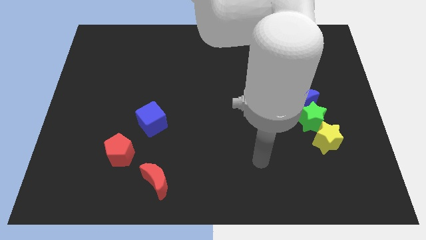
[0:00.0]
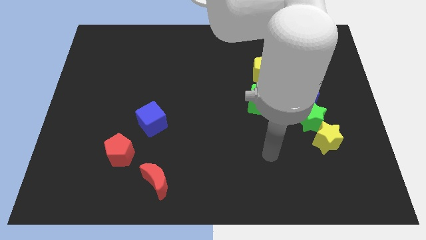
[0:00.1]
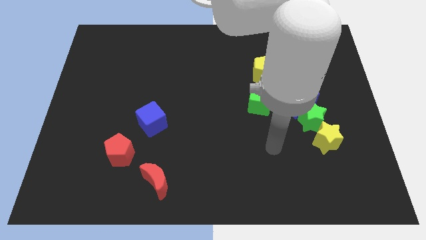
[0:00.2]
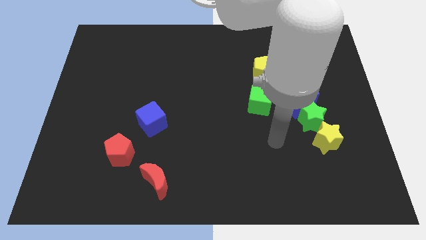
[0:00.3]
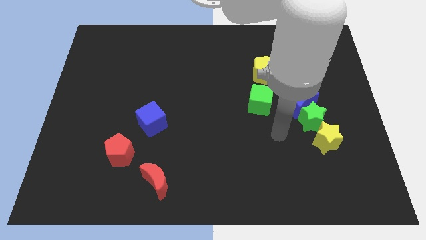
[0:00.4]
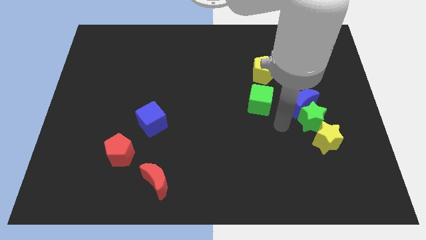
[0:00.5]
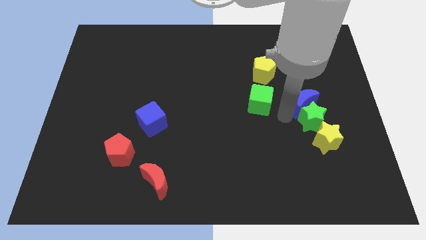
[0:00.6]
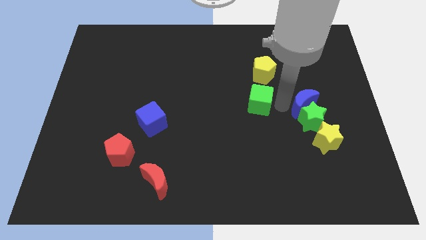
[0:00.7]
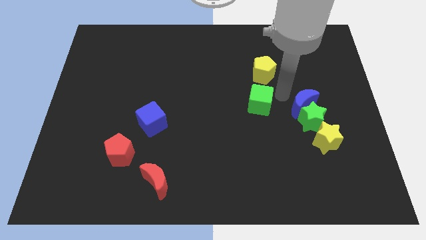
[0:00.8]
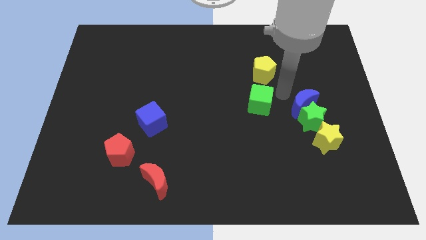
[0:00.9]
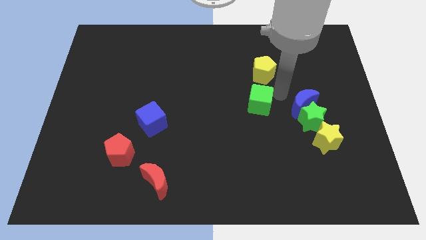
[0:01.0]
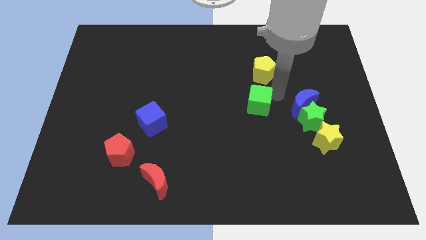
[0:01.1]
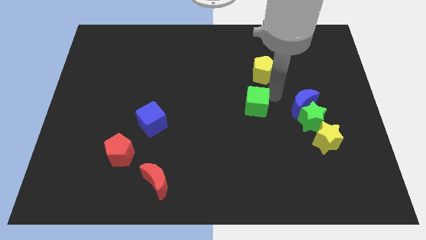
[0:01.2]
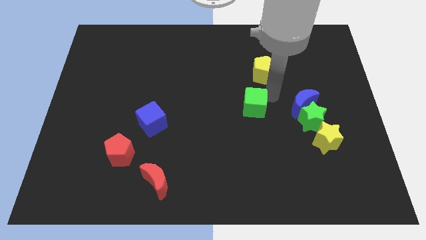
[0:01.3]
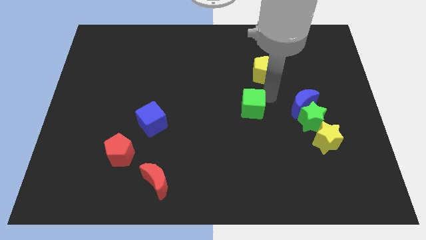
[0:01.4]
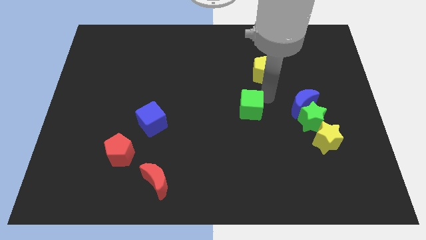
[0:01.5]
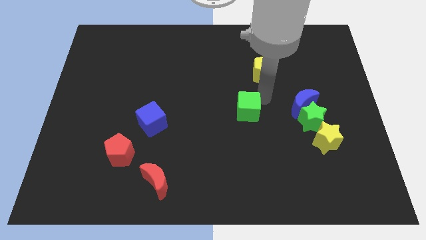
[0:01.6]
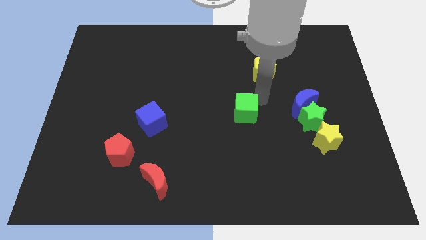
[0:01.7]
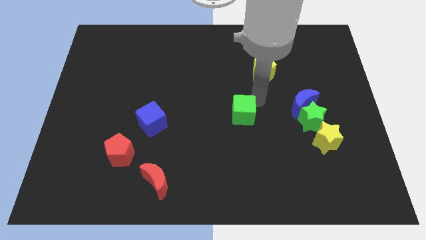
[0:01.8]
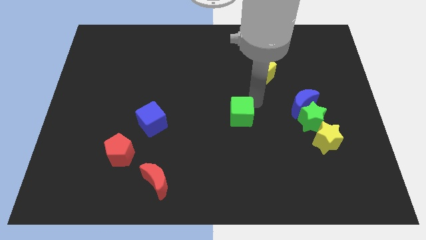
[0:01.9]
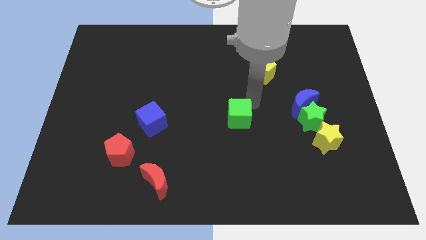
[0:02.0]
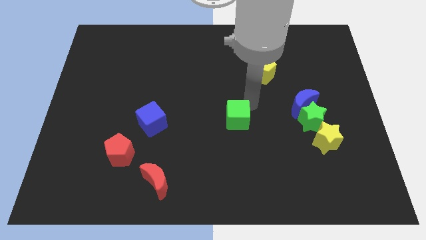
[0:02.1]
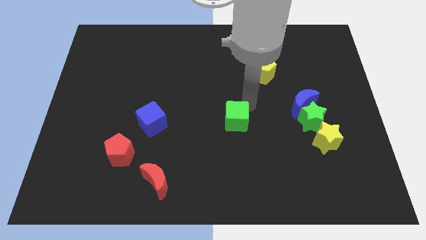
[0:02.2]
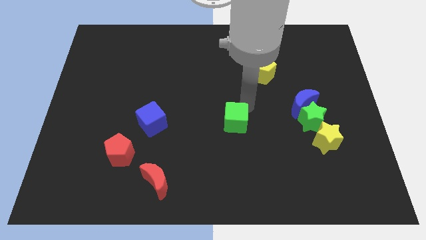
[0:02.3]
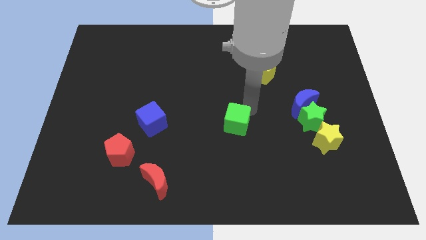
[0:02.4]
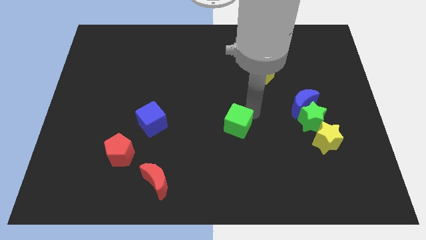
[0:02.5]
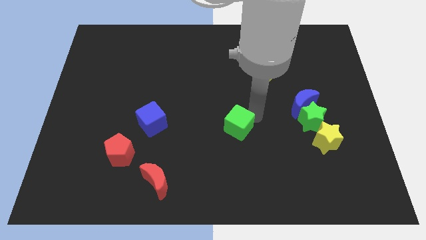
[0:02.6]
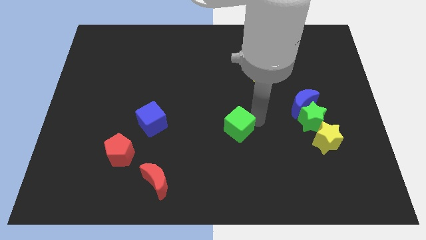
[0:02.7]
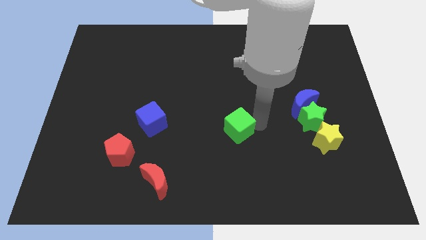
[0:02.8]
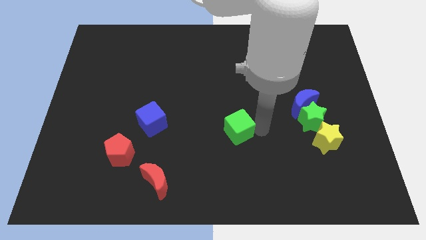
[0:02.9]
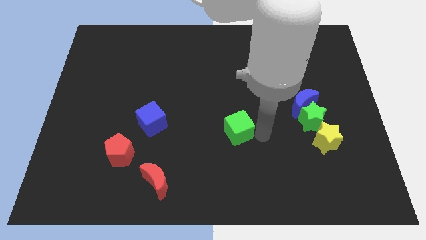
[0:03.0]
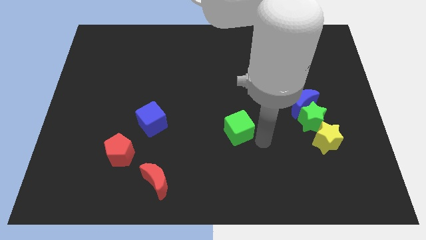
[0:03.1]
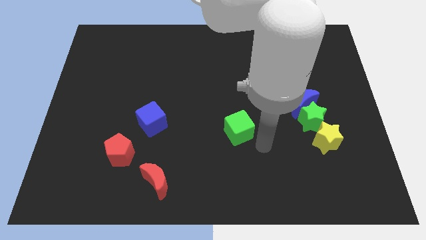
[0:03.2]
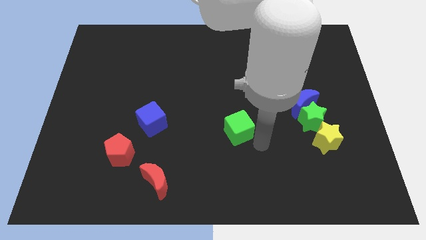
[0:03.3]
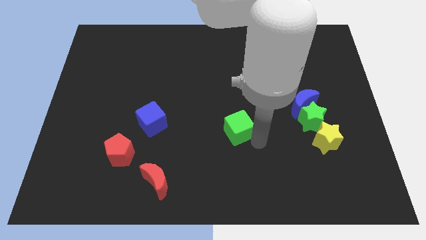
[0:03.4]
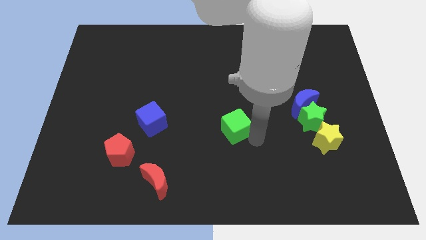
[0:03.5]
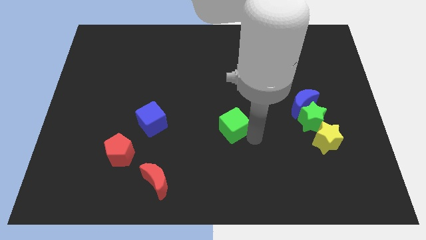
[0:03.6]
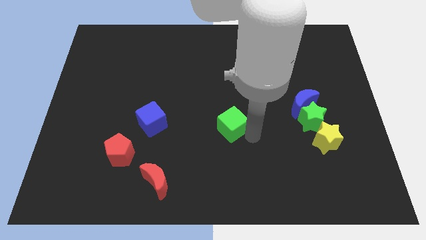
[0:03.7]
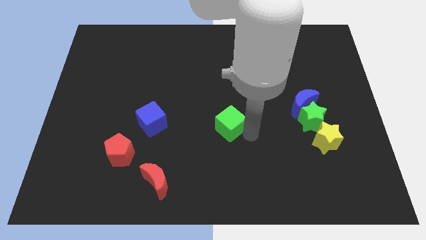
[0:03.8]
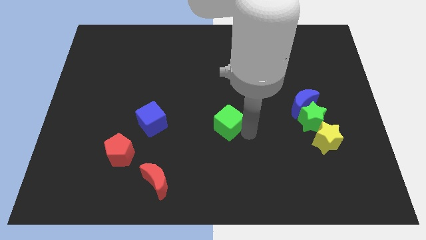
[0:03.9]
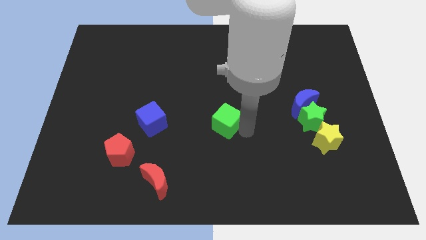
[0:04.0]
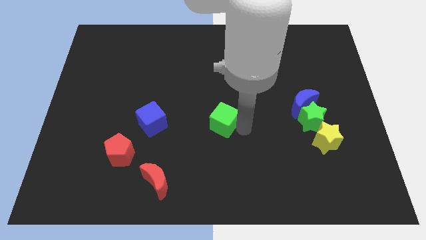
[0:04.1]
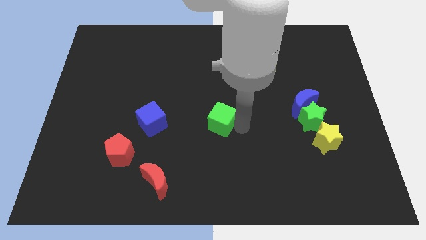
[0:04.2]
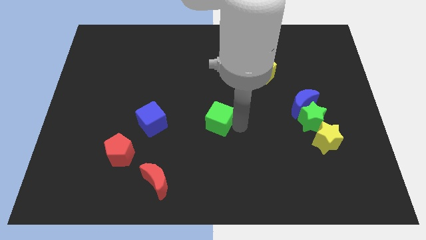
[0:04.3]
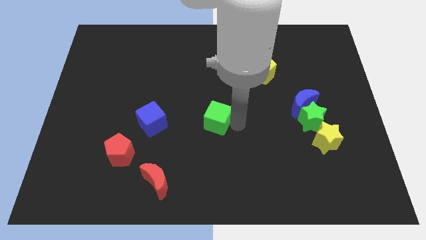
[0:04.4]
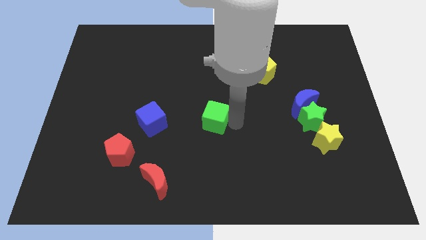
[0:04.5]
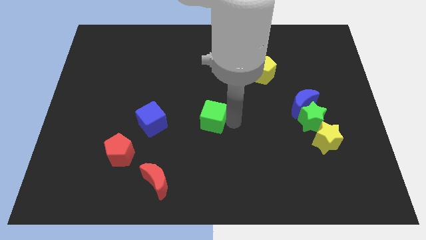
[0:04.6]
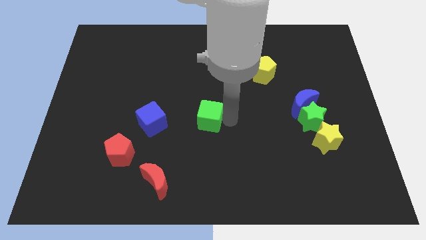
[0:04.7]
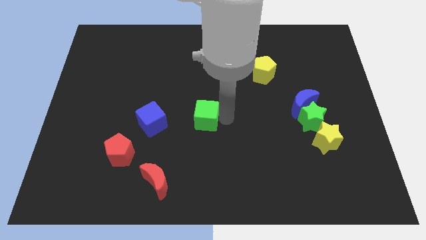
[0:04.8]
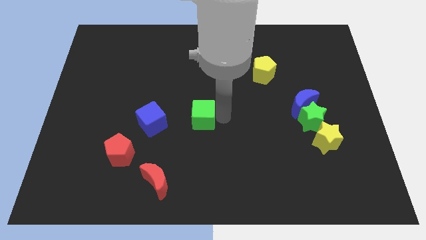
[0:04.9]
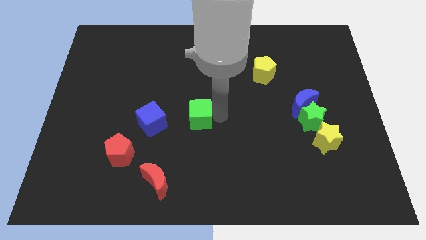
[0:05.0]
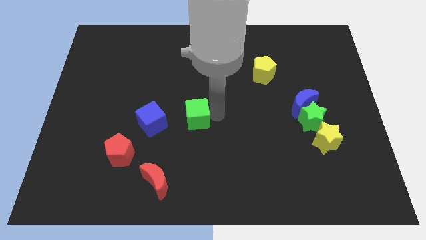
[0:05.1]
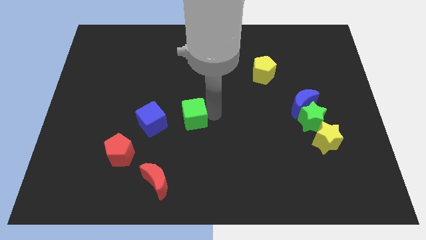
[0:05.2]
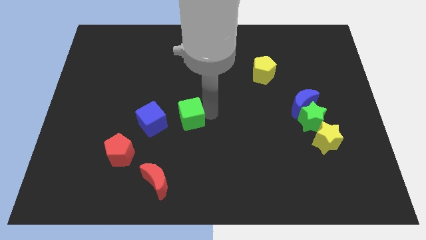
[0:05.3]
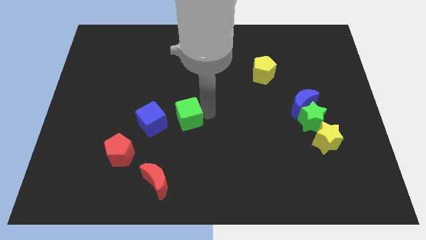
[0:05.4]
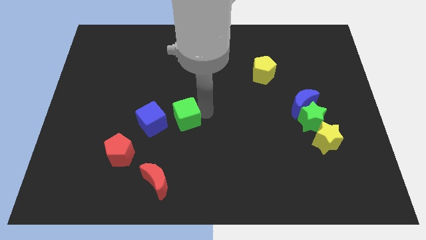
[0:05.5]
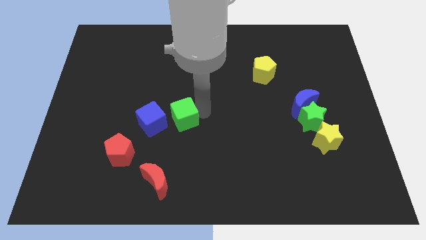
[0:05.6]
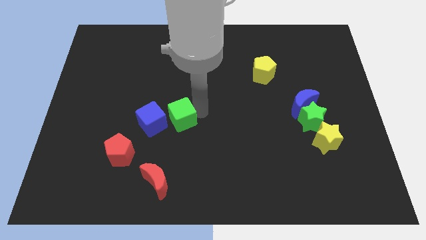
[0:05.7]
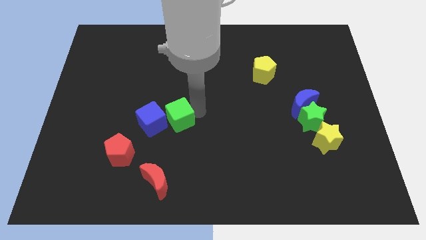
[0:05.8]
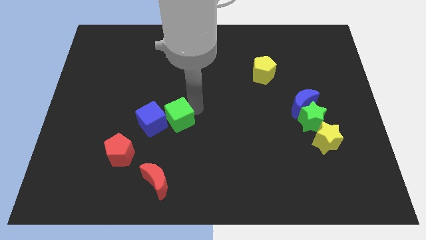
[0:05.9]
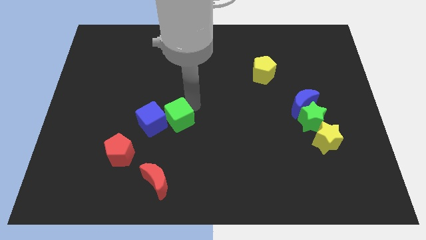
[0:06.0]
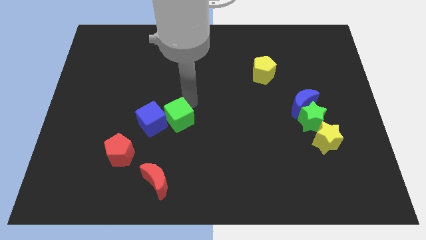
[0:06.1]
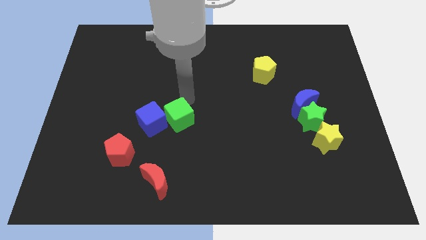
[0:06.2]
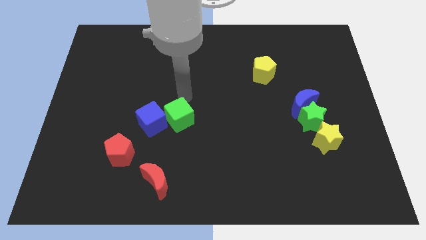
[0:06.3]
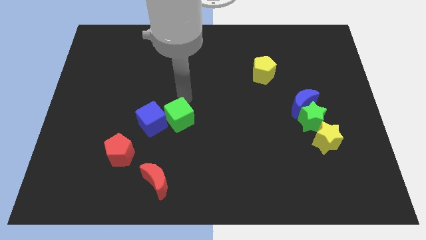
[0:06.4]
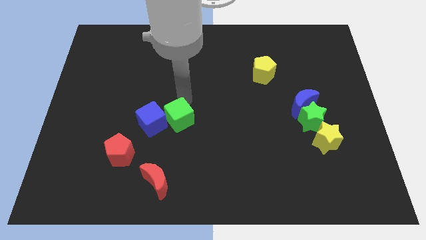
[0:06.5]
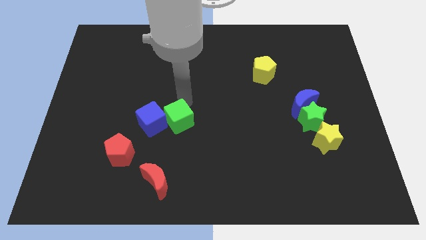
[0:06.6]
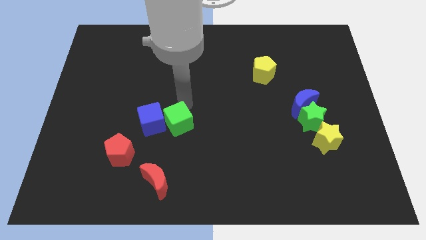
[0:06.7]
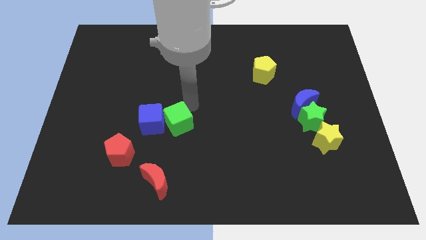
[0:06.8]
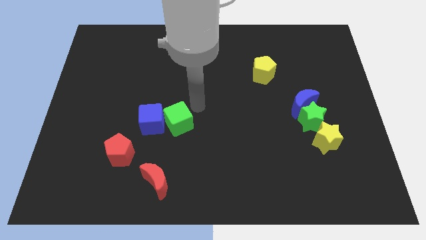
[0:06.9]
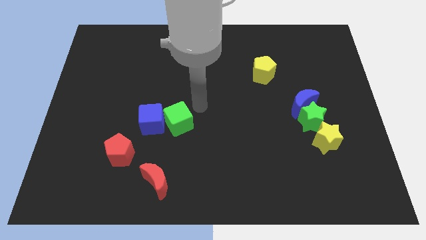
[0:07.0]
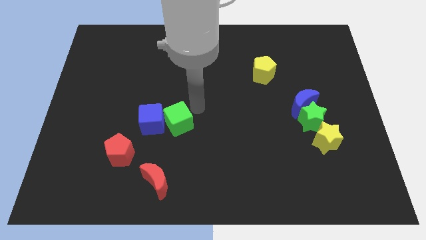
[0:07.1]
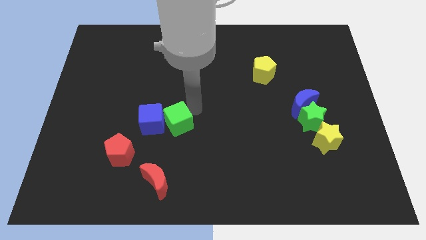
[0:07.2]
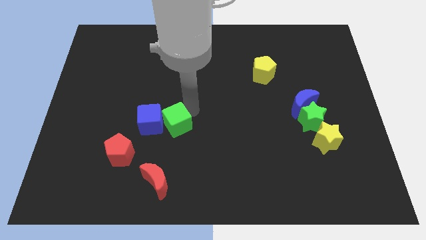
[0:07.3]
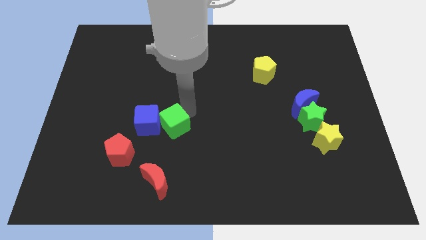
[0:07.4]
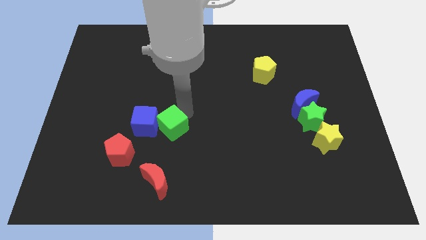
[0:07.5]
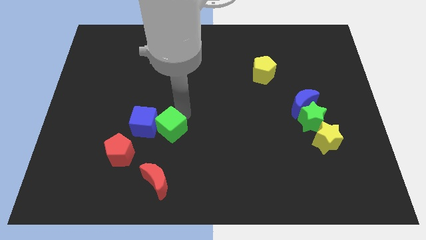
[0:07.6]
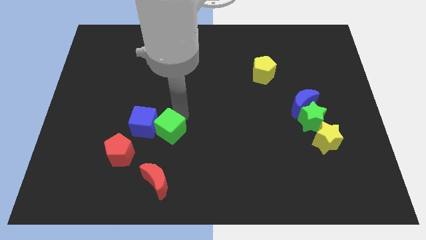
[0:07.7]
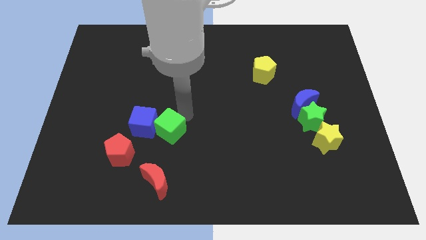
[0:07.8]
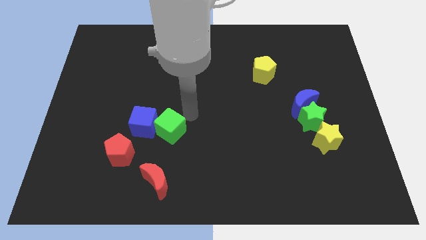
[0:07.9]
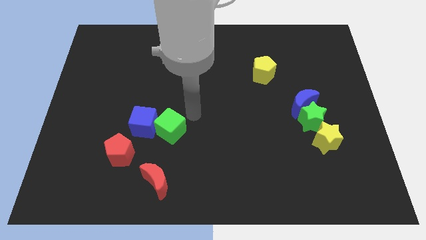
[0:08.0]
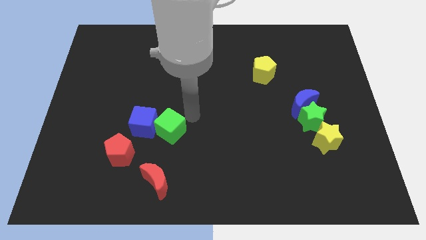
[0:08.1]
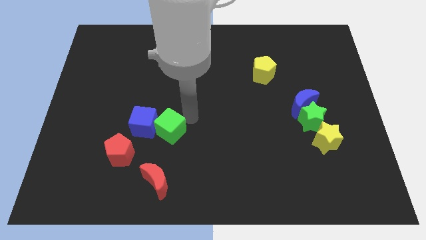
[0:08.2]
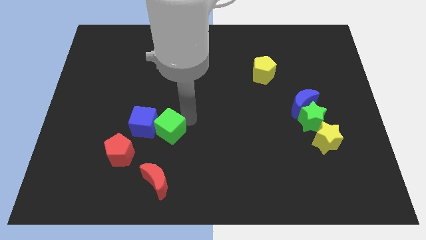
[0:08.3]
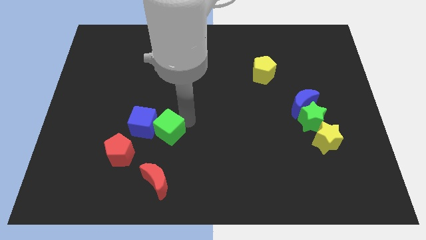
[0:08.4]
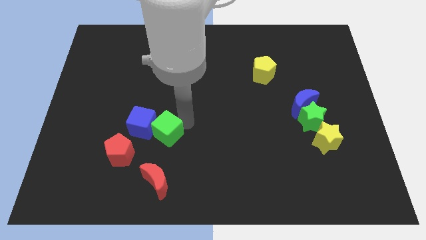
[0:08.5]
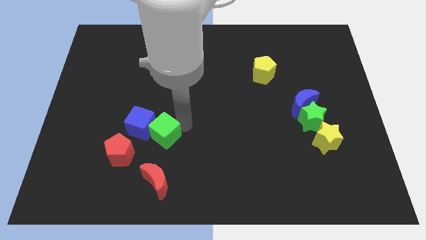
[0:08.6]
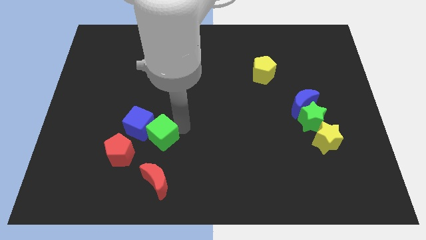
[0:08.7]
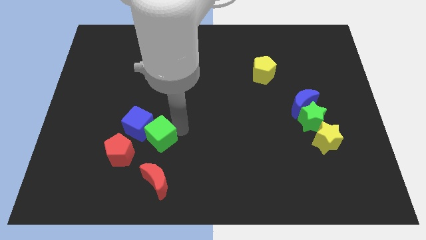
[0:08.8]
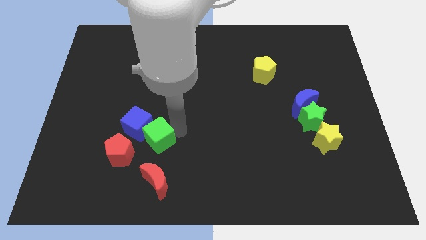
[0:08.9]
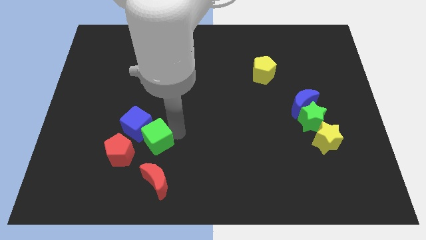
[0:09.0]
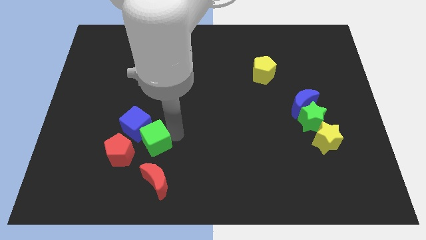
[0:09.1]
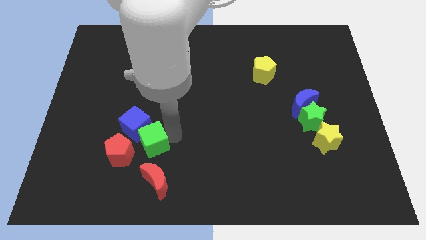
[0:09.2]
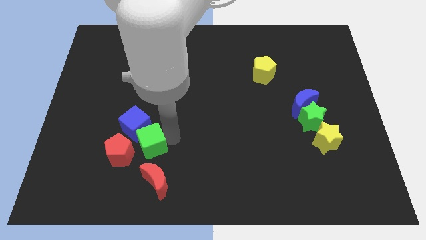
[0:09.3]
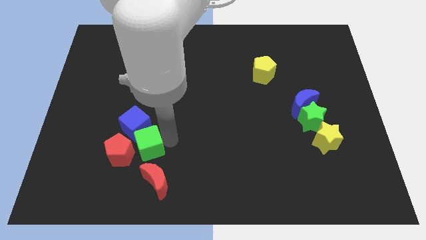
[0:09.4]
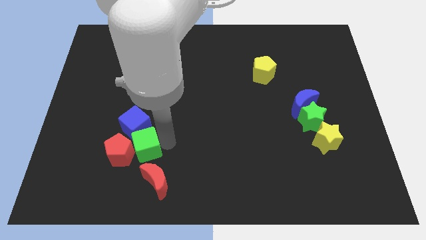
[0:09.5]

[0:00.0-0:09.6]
slide the green cube towards the red pentagon
